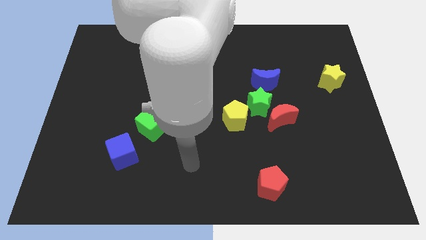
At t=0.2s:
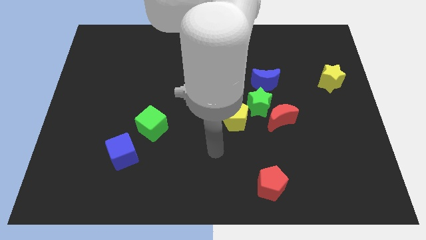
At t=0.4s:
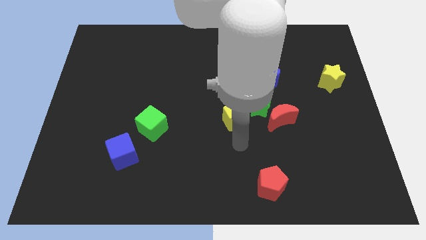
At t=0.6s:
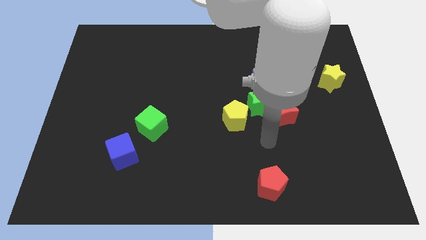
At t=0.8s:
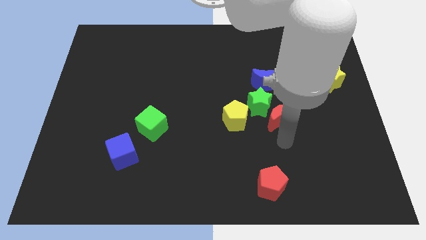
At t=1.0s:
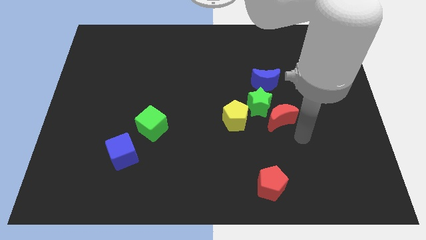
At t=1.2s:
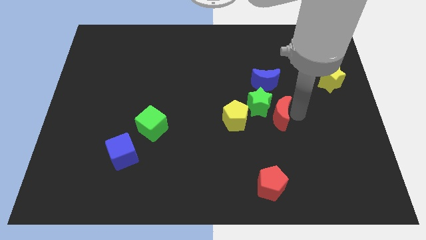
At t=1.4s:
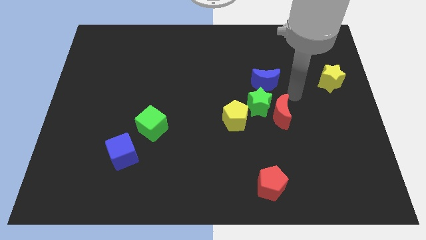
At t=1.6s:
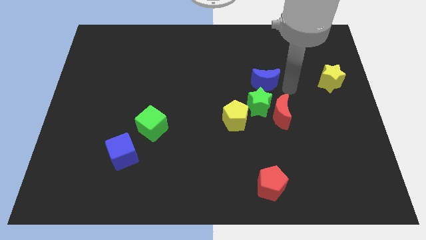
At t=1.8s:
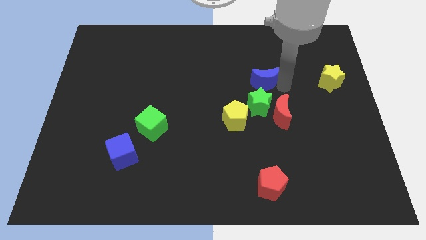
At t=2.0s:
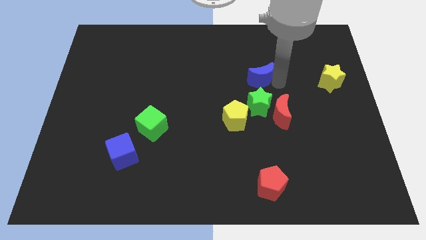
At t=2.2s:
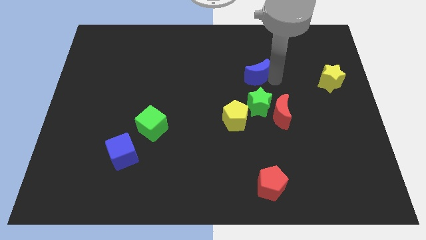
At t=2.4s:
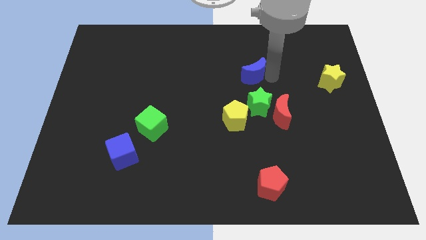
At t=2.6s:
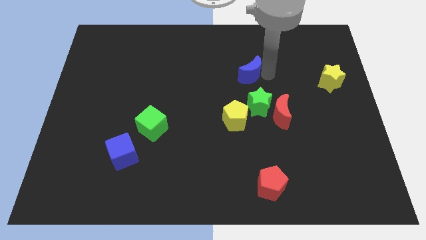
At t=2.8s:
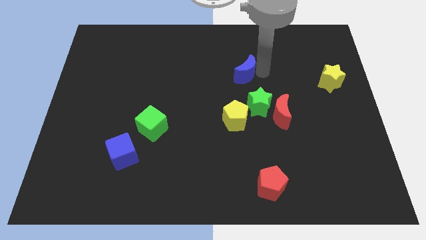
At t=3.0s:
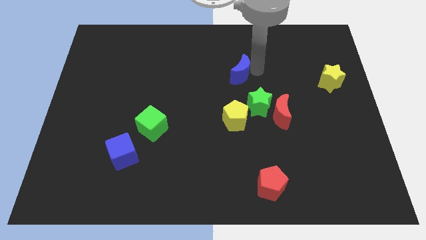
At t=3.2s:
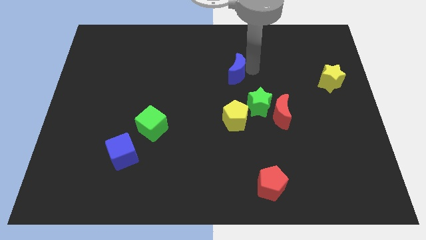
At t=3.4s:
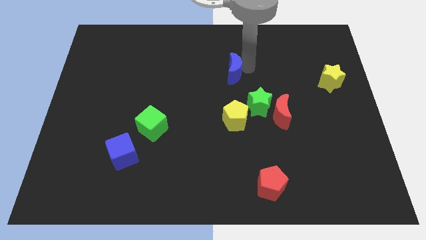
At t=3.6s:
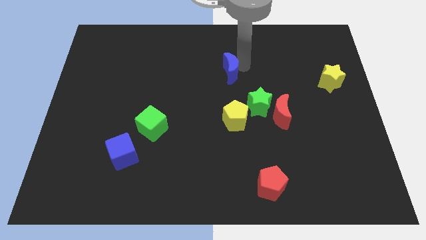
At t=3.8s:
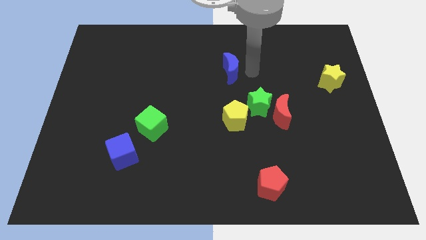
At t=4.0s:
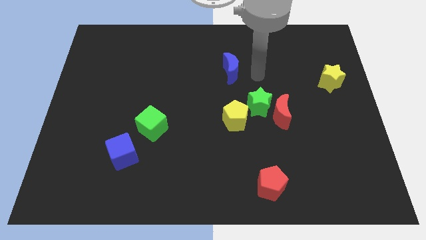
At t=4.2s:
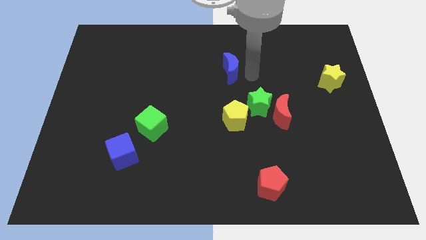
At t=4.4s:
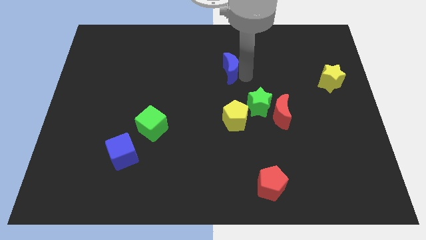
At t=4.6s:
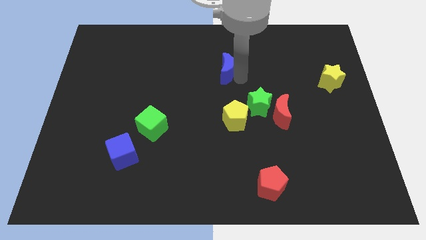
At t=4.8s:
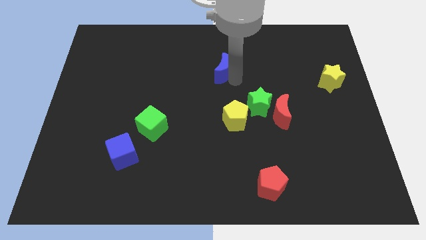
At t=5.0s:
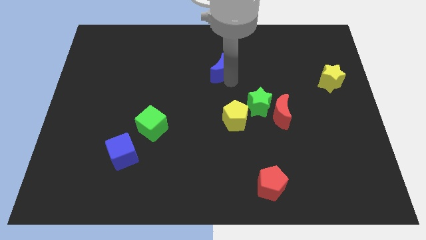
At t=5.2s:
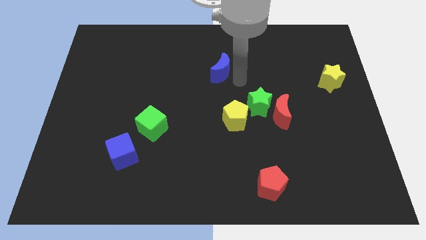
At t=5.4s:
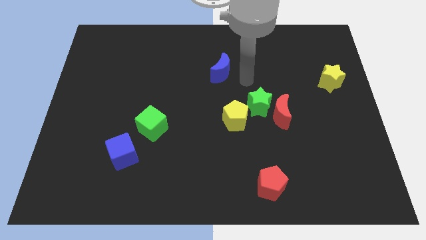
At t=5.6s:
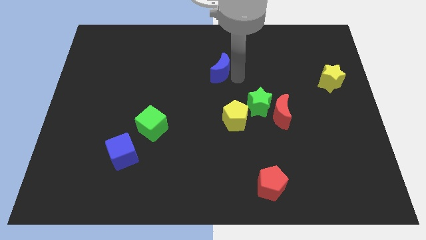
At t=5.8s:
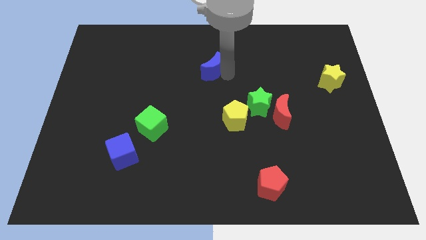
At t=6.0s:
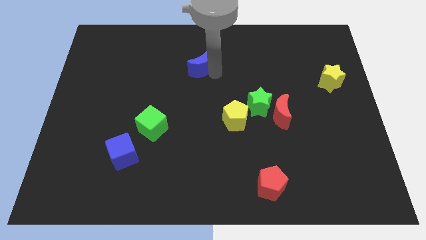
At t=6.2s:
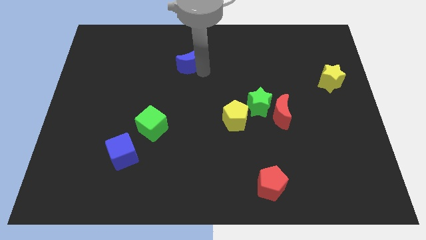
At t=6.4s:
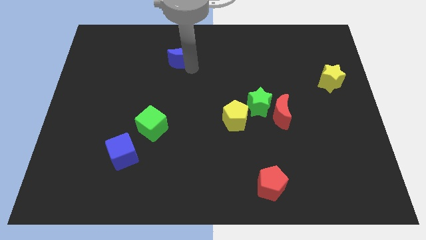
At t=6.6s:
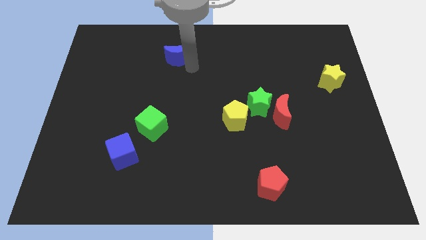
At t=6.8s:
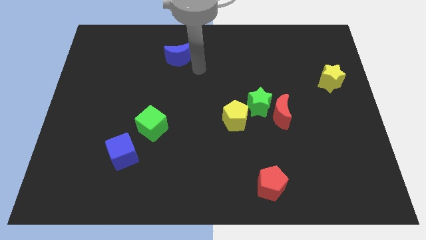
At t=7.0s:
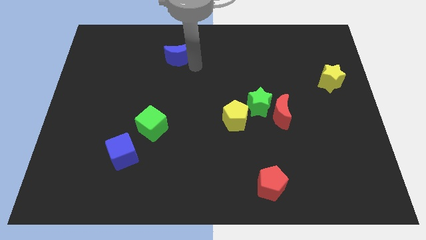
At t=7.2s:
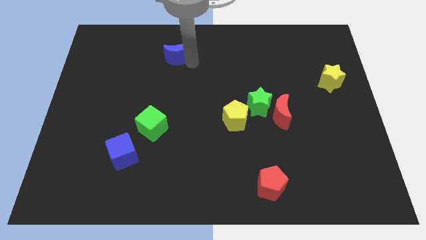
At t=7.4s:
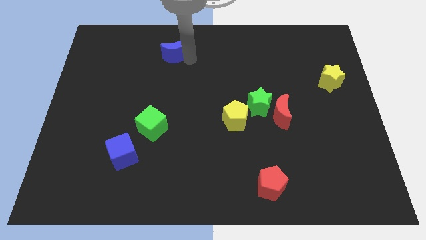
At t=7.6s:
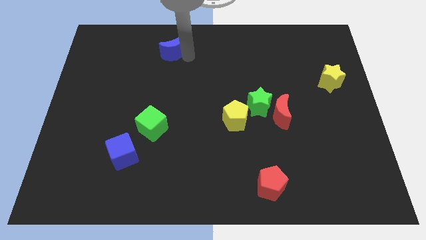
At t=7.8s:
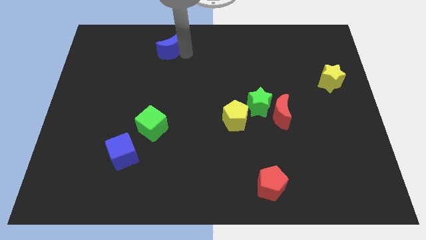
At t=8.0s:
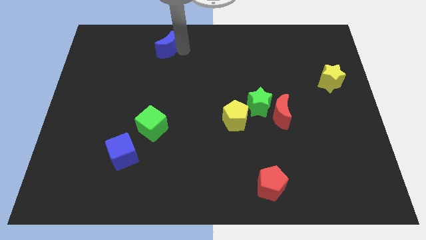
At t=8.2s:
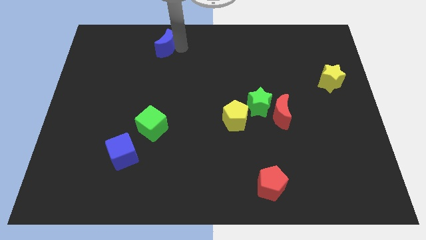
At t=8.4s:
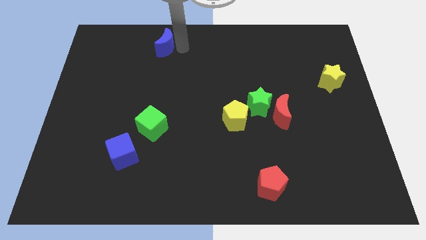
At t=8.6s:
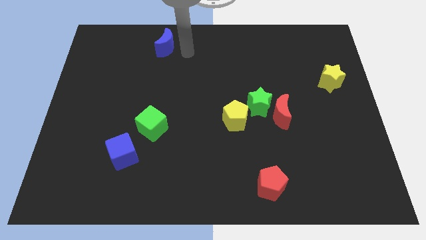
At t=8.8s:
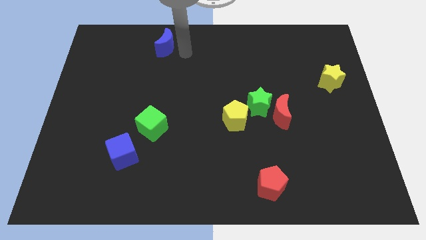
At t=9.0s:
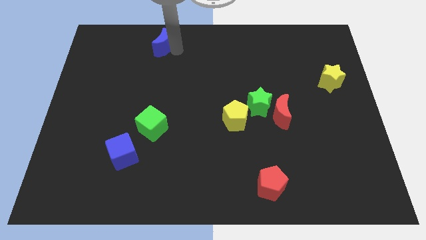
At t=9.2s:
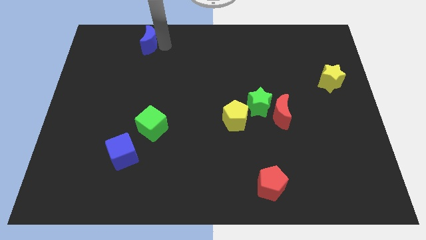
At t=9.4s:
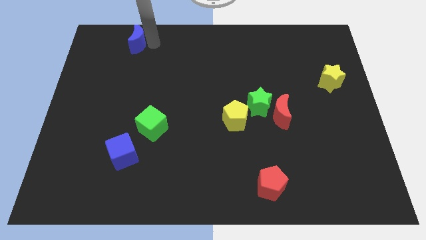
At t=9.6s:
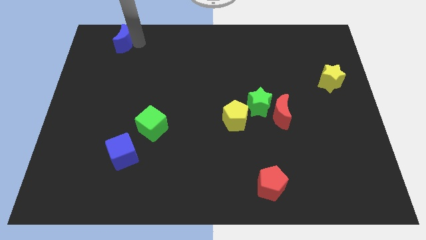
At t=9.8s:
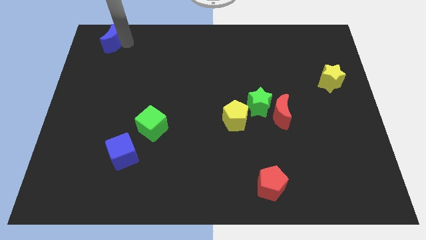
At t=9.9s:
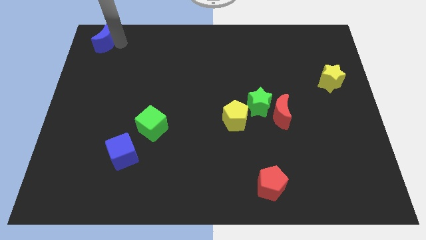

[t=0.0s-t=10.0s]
slide the blue moon to the top left

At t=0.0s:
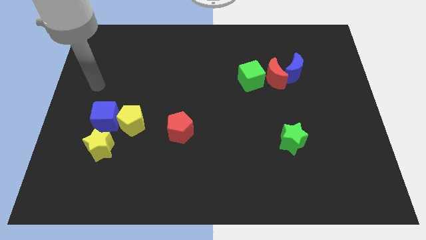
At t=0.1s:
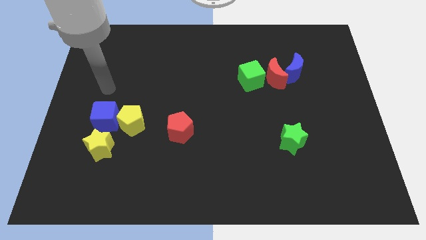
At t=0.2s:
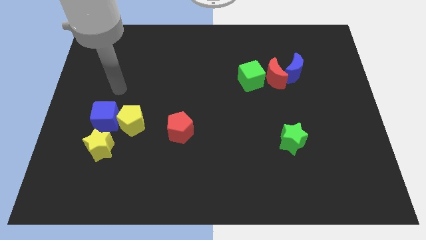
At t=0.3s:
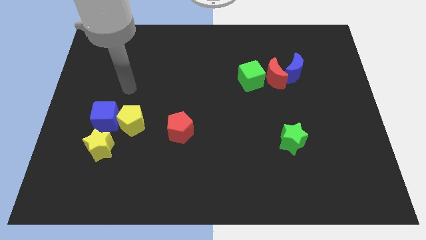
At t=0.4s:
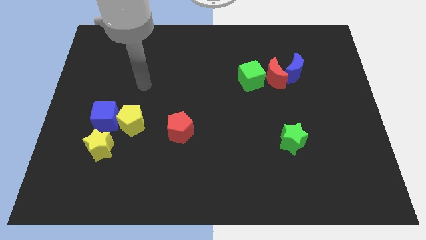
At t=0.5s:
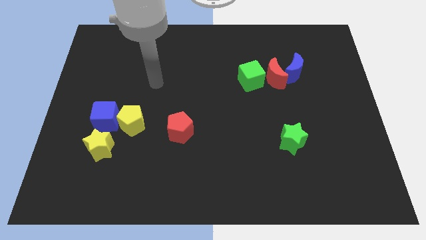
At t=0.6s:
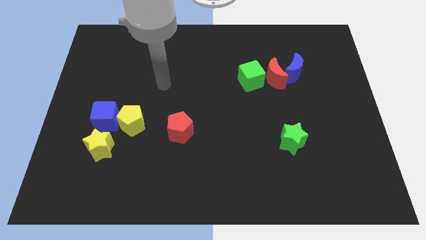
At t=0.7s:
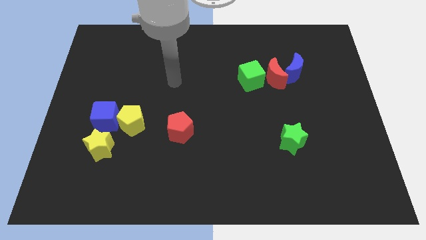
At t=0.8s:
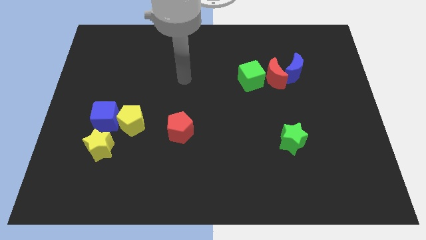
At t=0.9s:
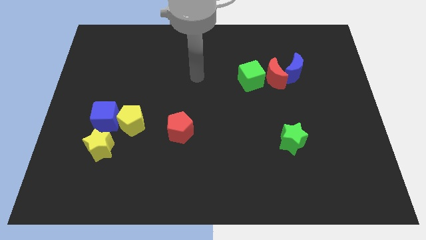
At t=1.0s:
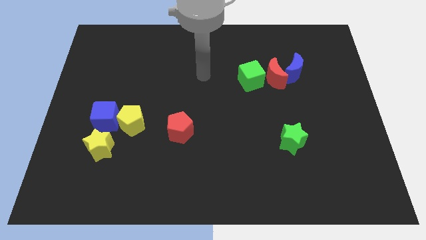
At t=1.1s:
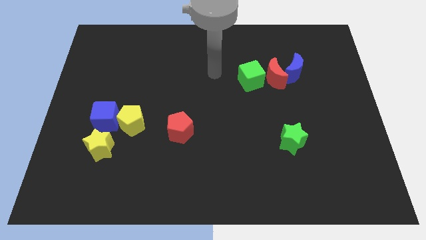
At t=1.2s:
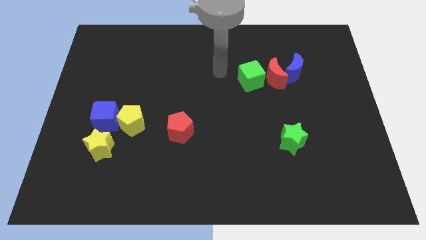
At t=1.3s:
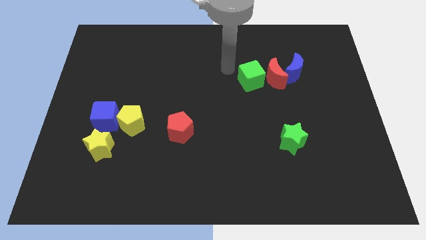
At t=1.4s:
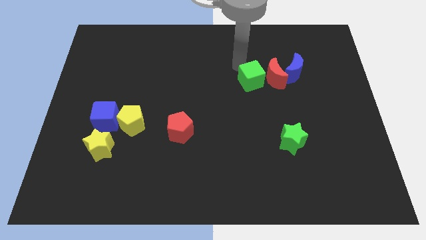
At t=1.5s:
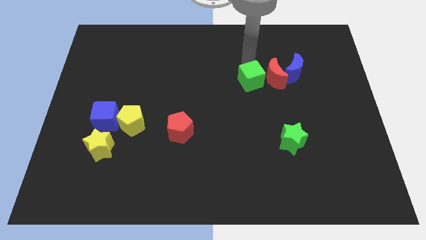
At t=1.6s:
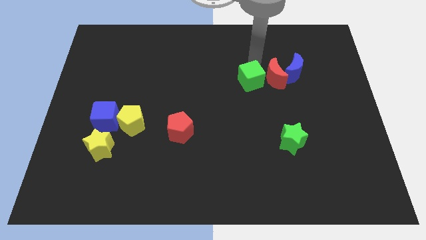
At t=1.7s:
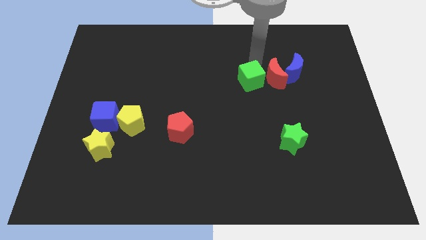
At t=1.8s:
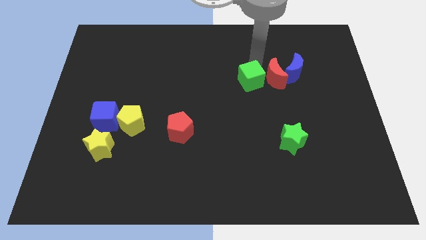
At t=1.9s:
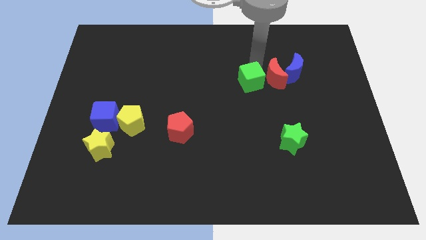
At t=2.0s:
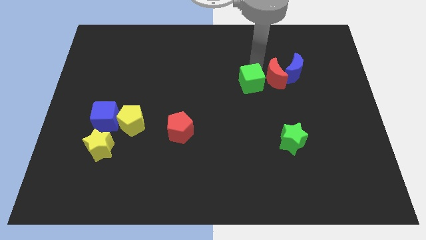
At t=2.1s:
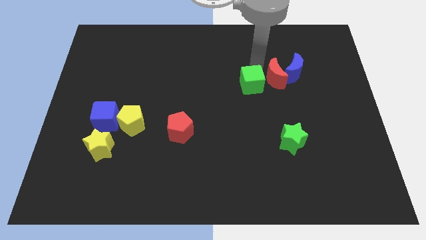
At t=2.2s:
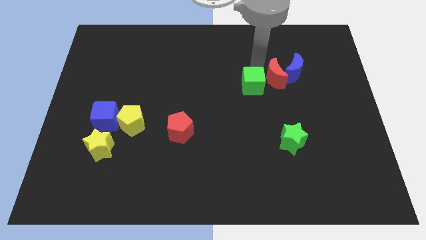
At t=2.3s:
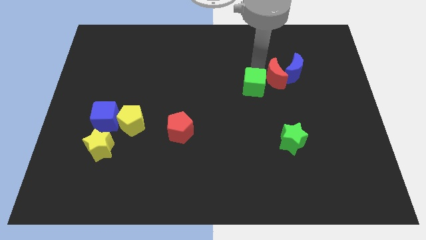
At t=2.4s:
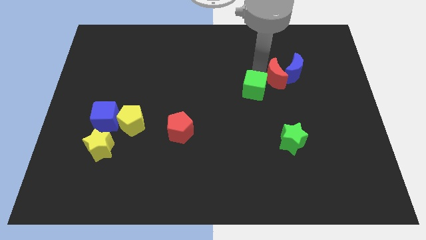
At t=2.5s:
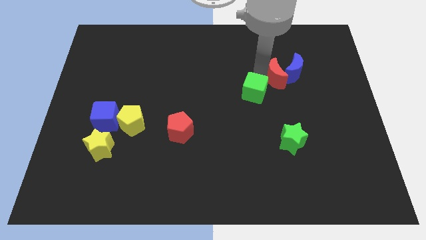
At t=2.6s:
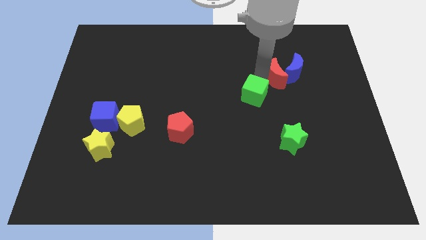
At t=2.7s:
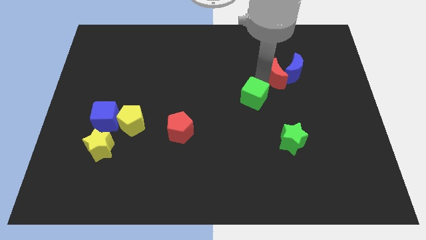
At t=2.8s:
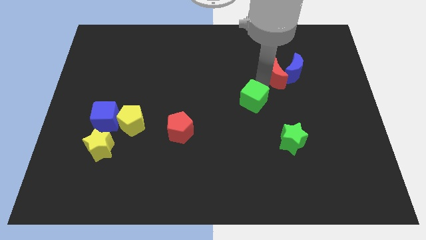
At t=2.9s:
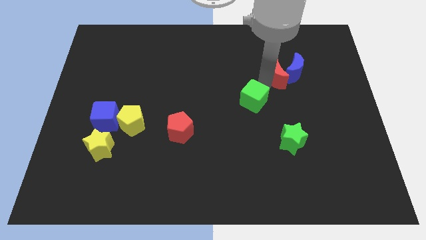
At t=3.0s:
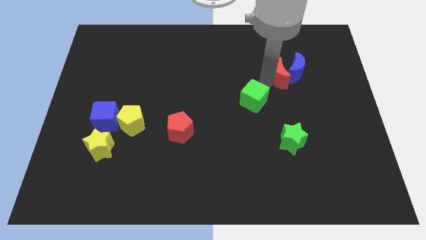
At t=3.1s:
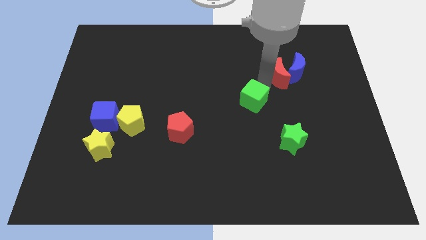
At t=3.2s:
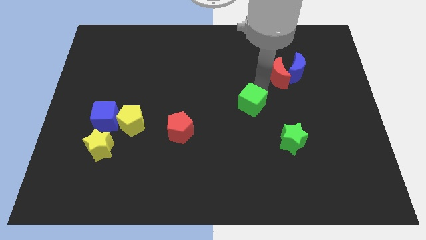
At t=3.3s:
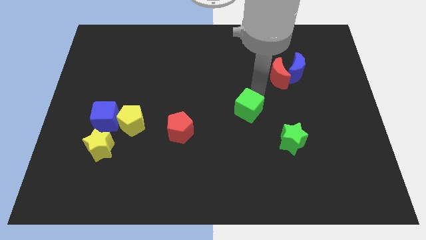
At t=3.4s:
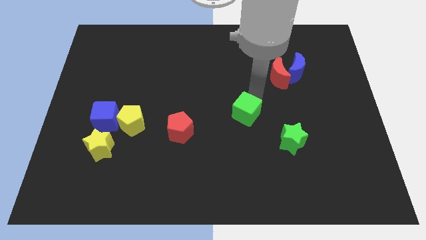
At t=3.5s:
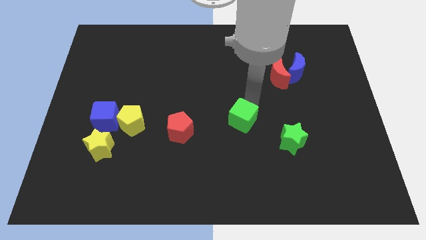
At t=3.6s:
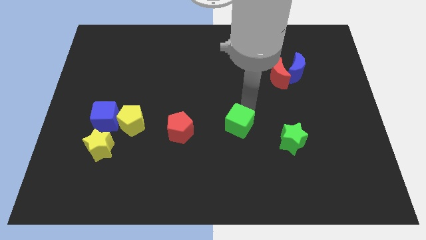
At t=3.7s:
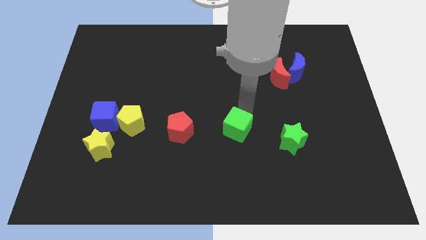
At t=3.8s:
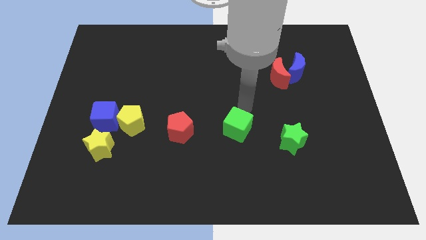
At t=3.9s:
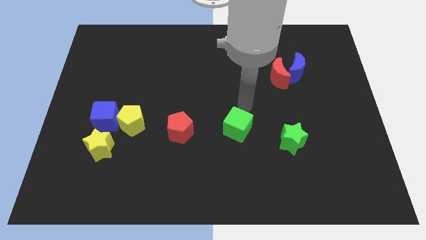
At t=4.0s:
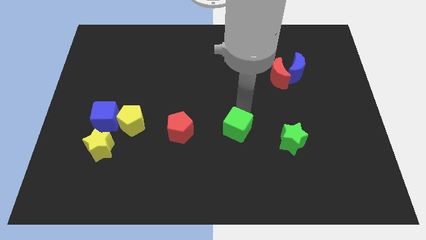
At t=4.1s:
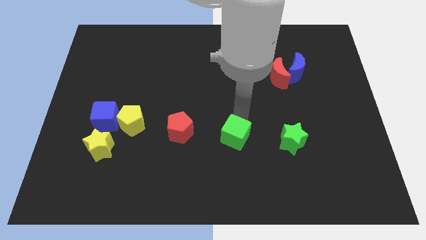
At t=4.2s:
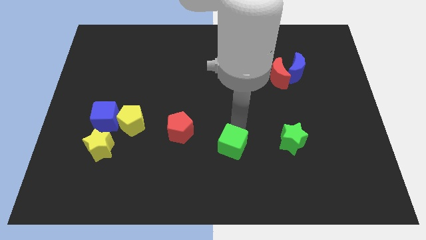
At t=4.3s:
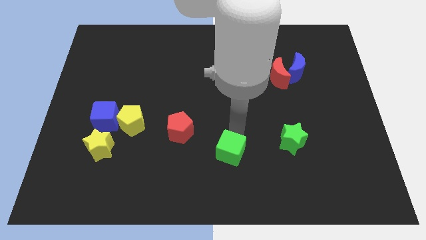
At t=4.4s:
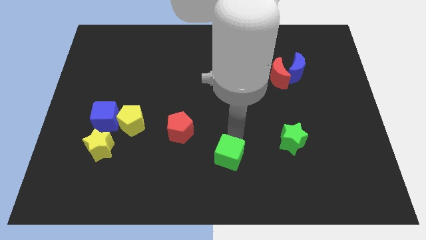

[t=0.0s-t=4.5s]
slide the green cube to the bottom side
